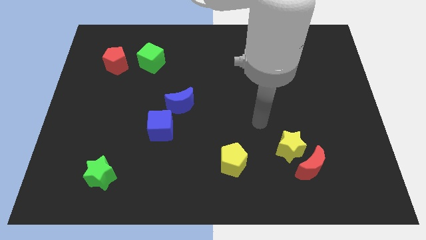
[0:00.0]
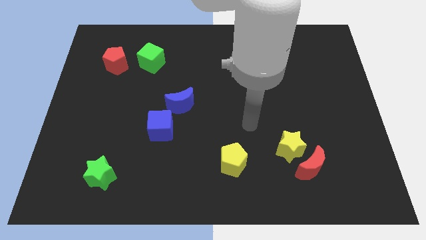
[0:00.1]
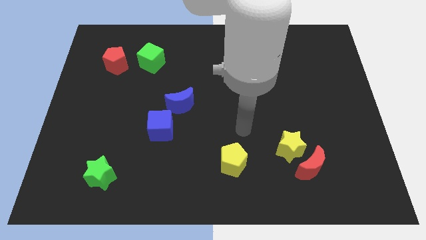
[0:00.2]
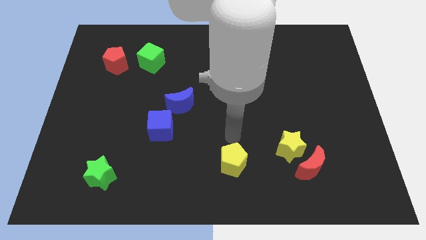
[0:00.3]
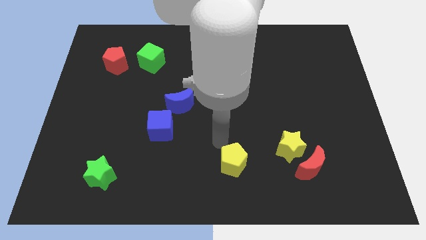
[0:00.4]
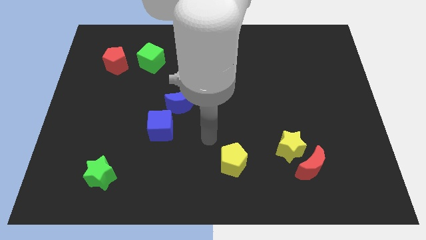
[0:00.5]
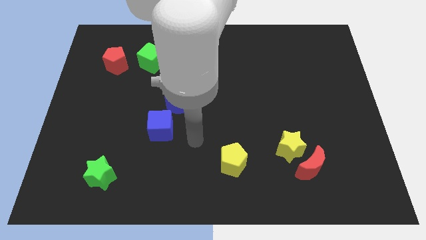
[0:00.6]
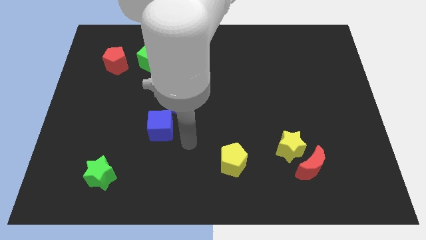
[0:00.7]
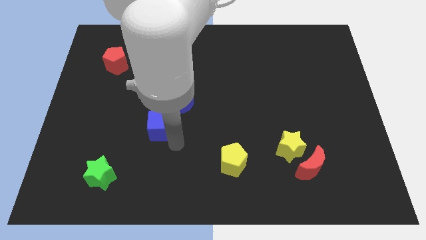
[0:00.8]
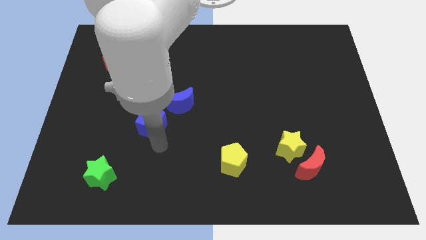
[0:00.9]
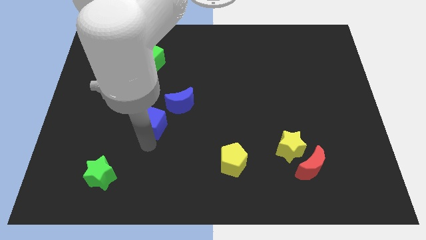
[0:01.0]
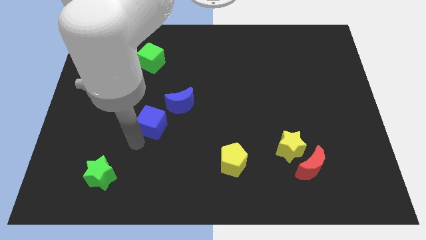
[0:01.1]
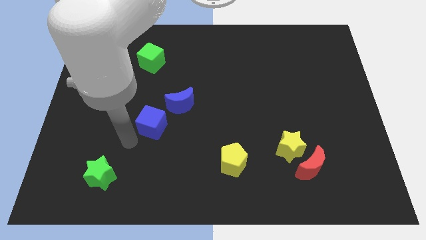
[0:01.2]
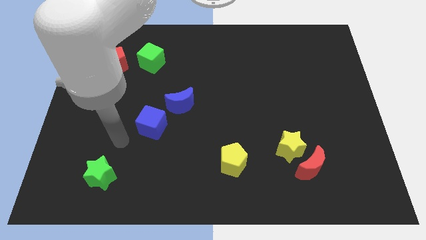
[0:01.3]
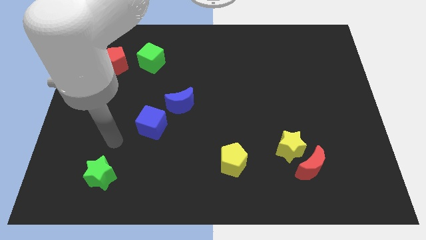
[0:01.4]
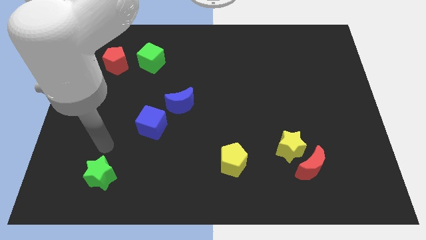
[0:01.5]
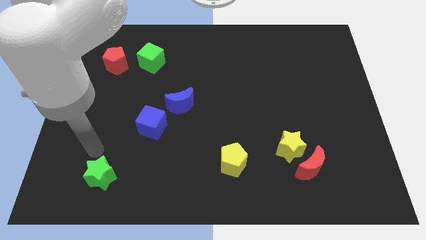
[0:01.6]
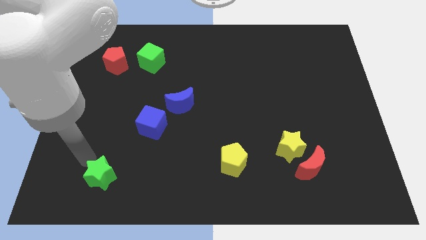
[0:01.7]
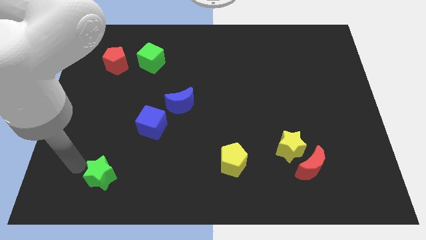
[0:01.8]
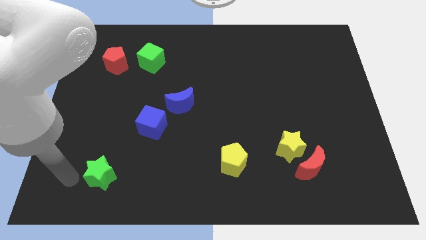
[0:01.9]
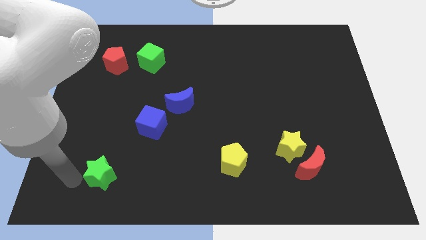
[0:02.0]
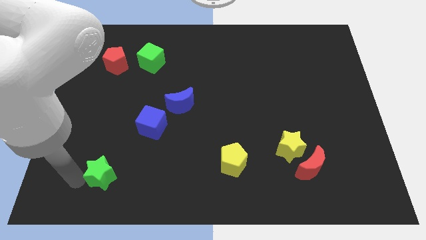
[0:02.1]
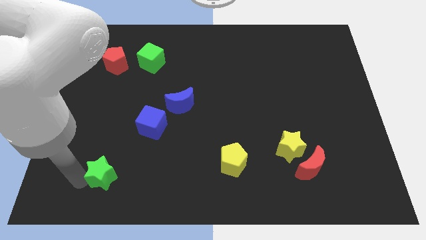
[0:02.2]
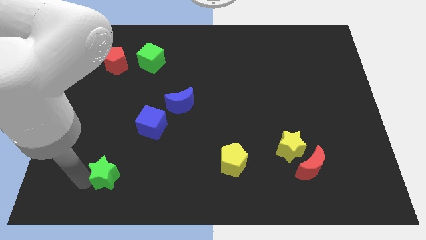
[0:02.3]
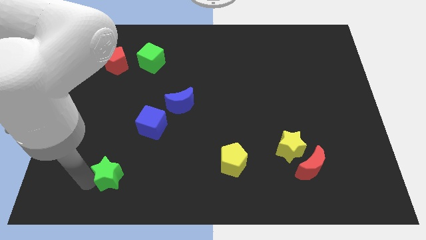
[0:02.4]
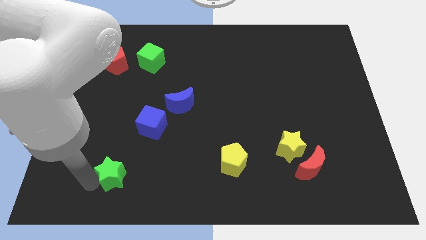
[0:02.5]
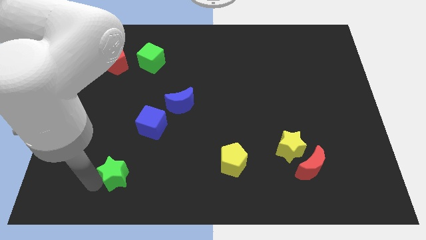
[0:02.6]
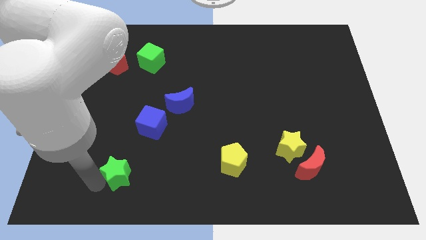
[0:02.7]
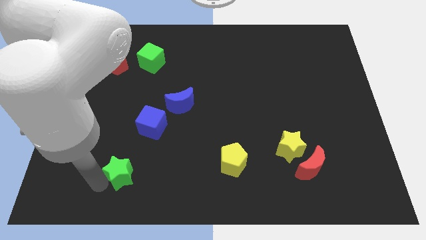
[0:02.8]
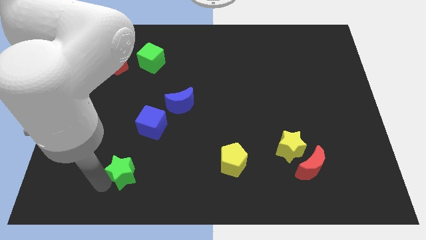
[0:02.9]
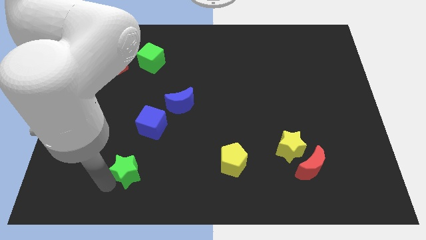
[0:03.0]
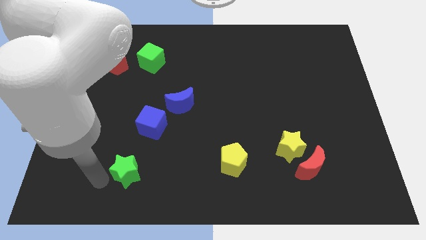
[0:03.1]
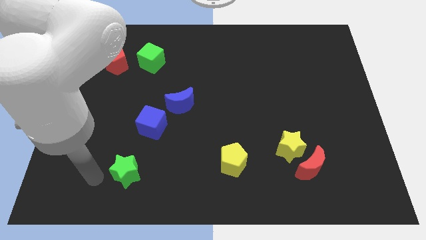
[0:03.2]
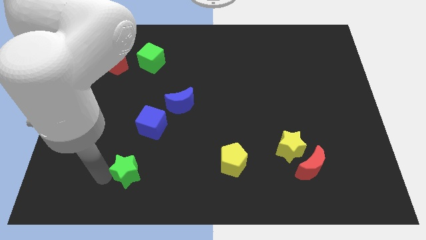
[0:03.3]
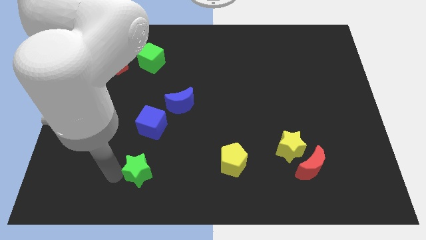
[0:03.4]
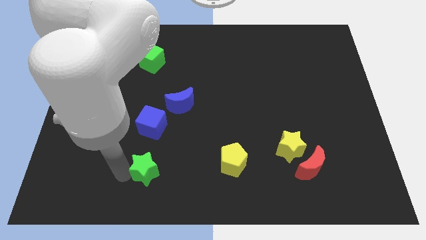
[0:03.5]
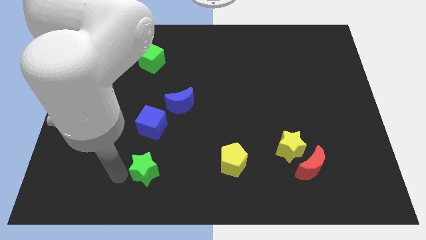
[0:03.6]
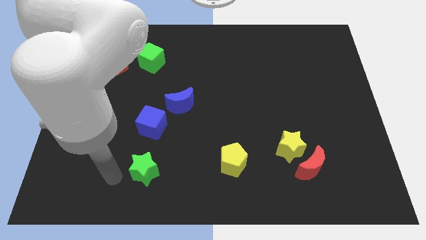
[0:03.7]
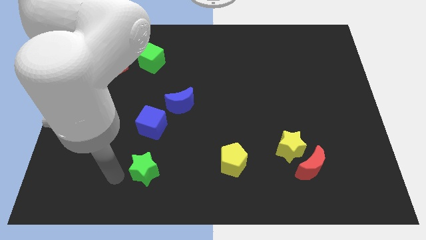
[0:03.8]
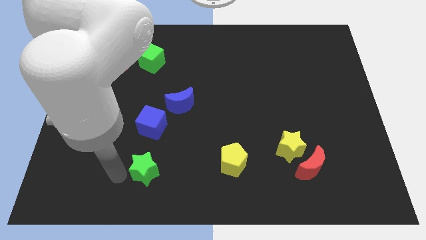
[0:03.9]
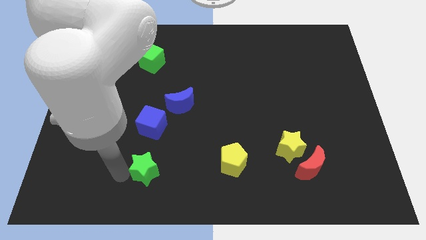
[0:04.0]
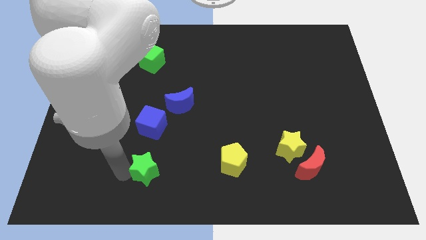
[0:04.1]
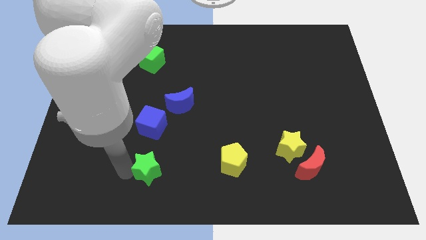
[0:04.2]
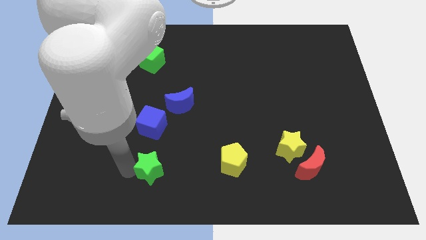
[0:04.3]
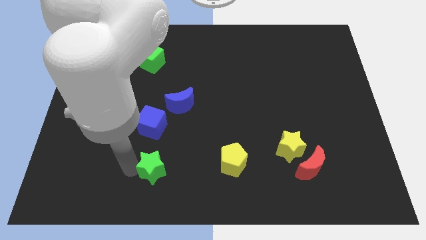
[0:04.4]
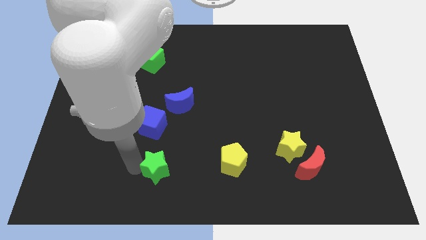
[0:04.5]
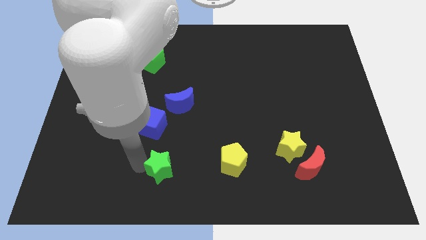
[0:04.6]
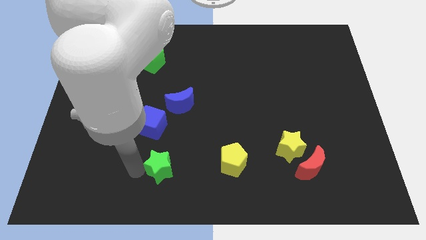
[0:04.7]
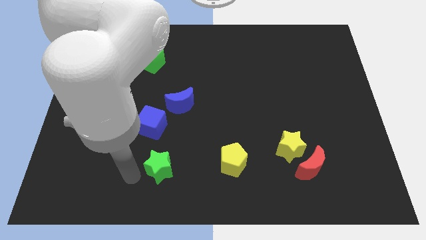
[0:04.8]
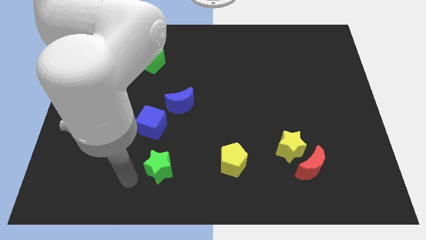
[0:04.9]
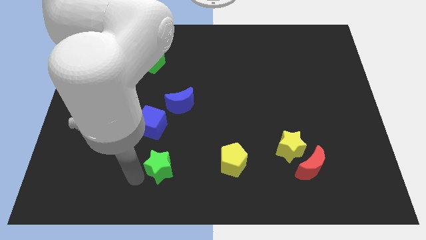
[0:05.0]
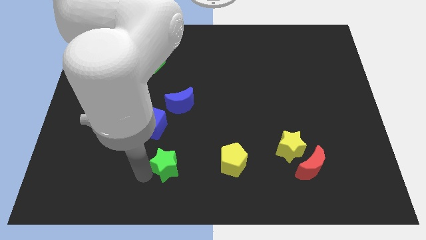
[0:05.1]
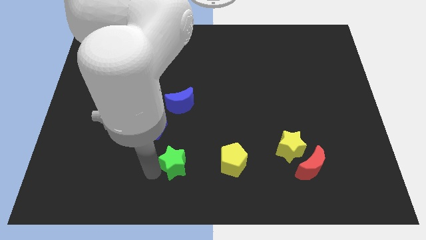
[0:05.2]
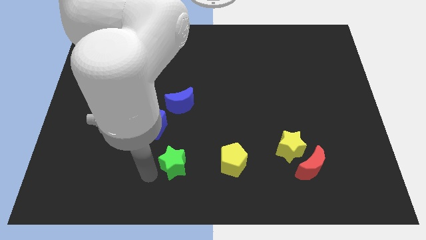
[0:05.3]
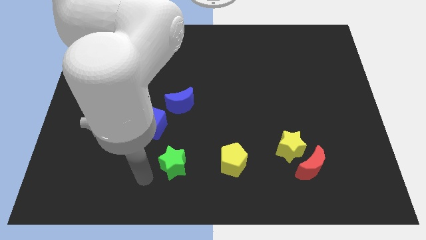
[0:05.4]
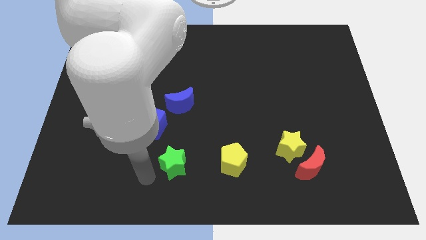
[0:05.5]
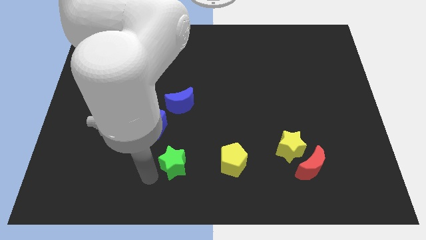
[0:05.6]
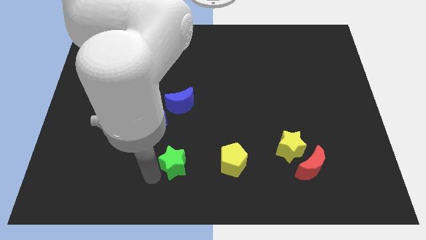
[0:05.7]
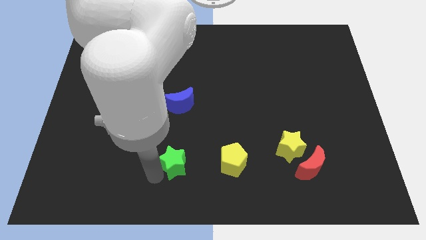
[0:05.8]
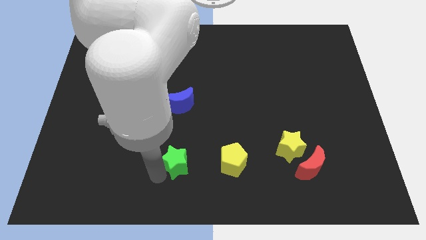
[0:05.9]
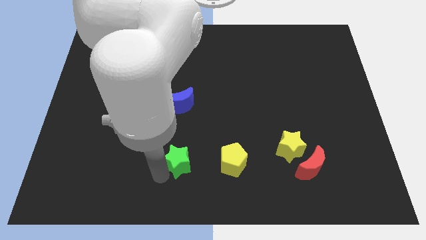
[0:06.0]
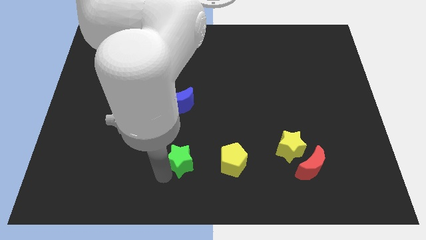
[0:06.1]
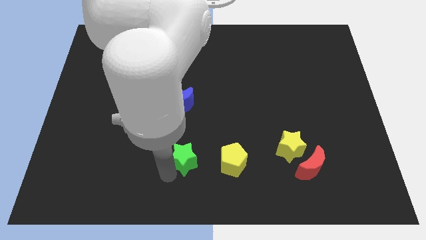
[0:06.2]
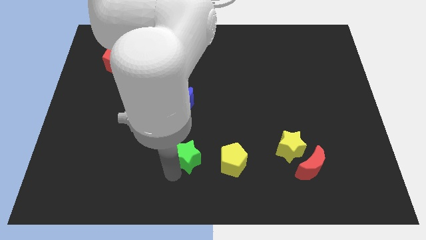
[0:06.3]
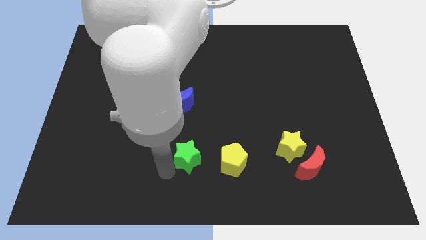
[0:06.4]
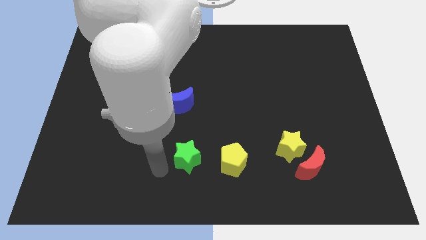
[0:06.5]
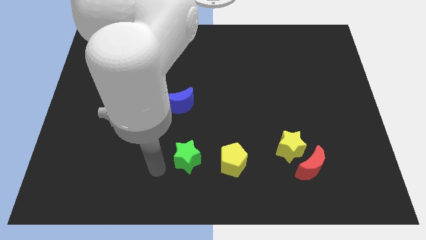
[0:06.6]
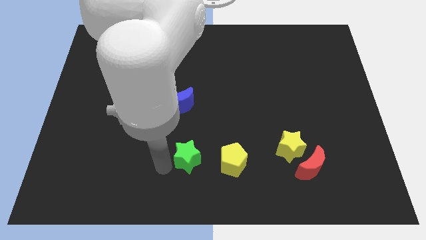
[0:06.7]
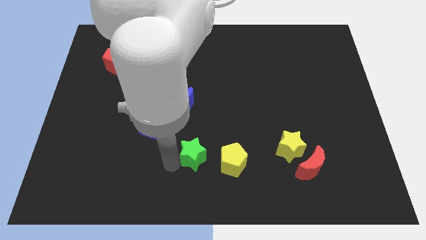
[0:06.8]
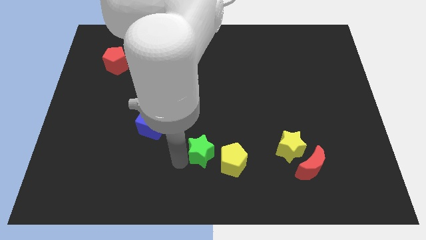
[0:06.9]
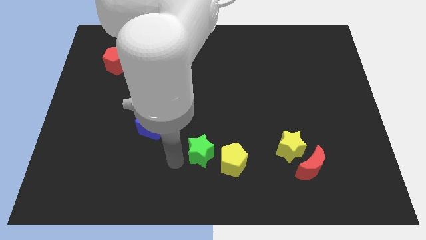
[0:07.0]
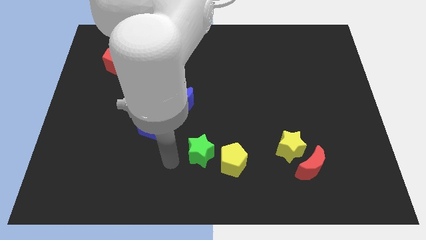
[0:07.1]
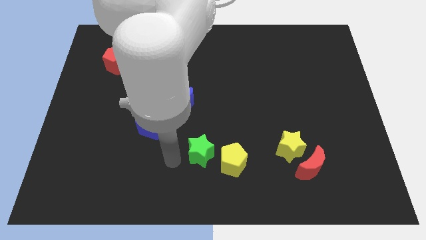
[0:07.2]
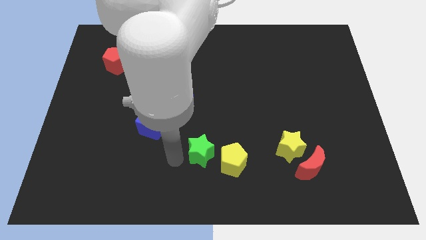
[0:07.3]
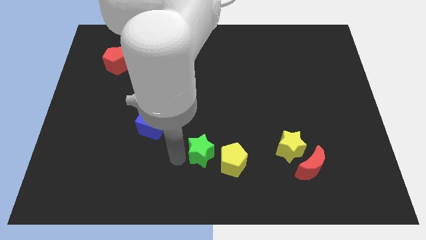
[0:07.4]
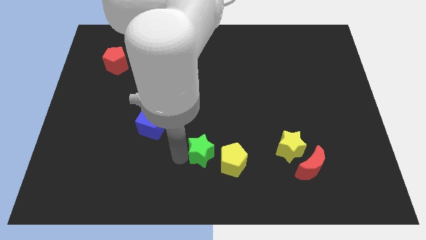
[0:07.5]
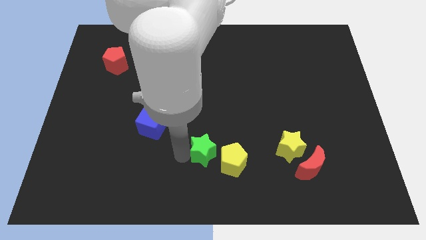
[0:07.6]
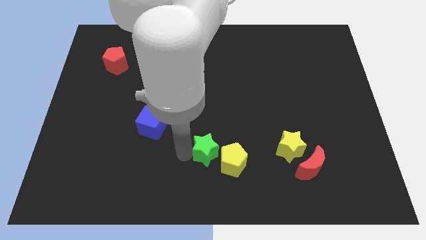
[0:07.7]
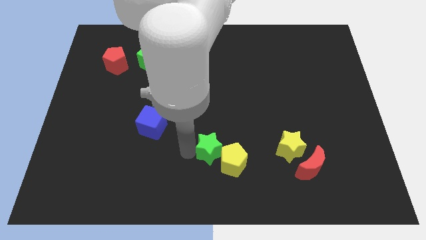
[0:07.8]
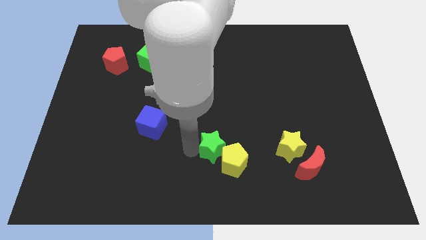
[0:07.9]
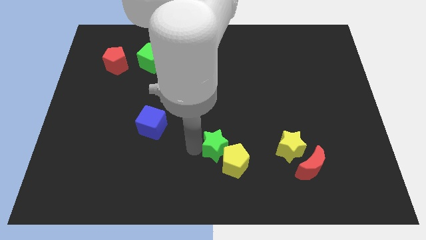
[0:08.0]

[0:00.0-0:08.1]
slide the green star just left of the yellow star
